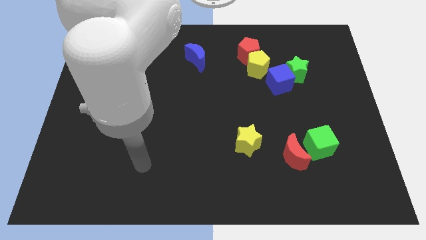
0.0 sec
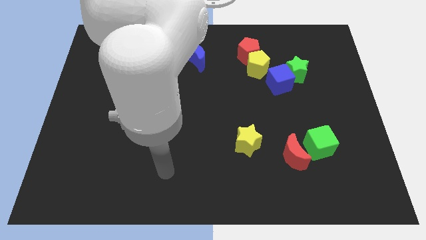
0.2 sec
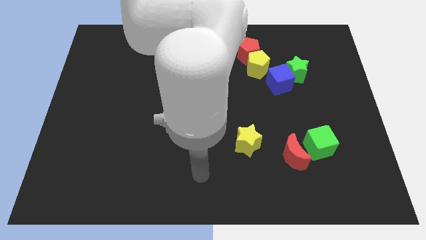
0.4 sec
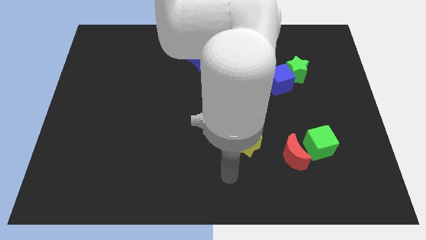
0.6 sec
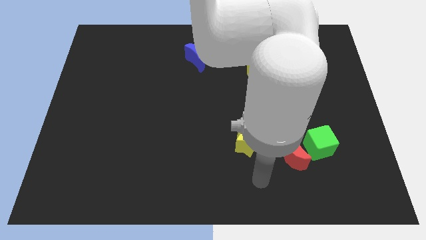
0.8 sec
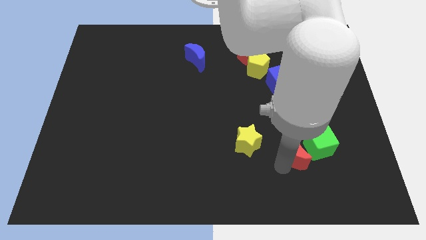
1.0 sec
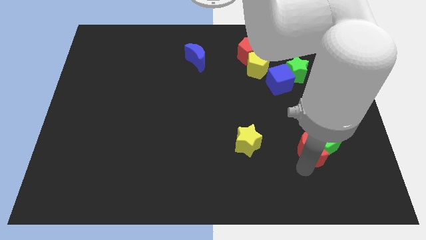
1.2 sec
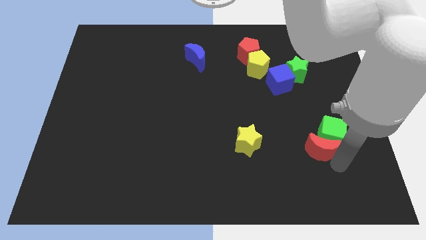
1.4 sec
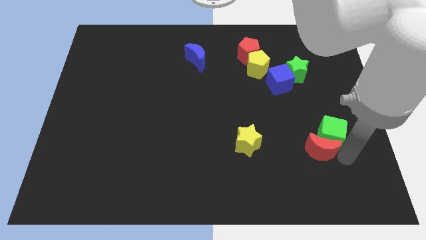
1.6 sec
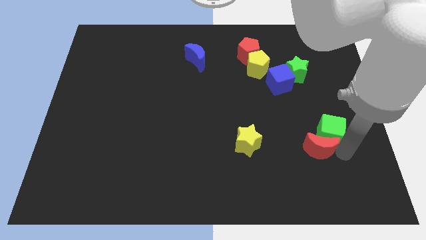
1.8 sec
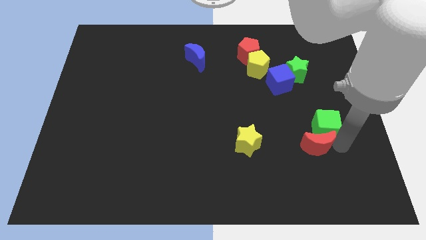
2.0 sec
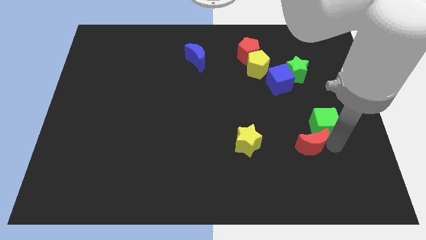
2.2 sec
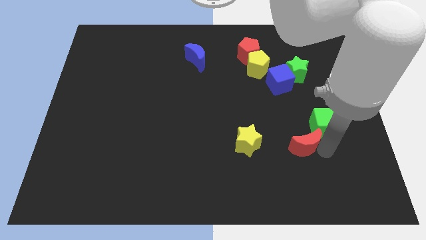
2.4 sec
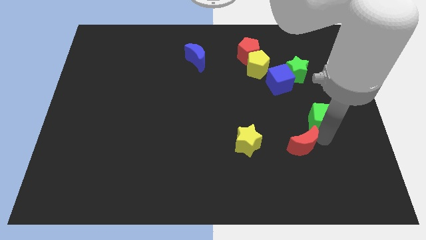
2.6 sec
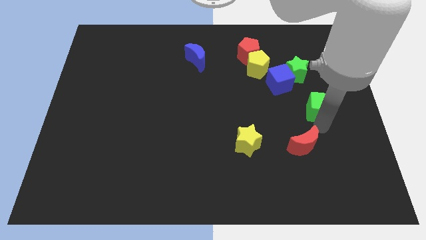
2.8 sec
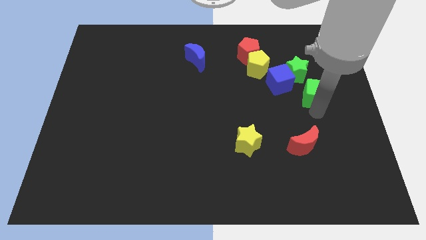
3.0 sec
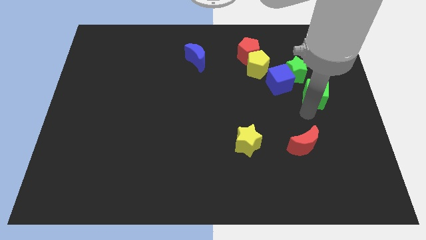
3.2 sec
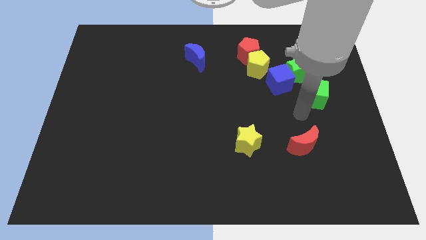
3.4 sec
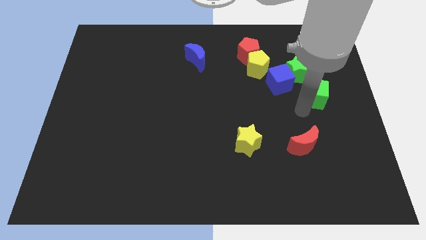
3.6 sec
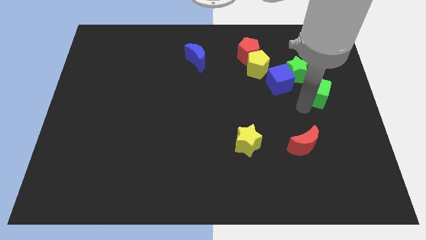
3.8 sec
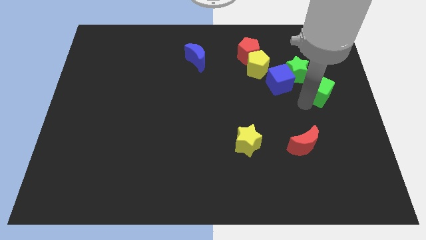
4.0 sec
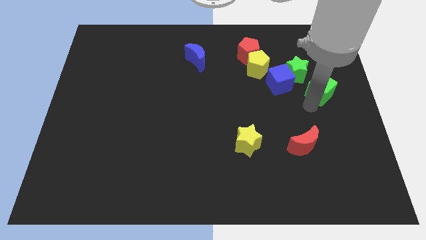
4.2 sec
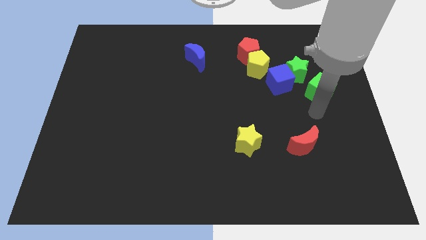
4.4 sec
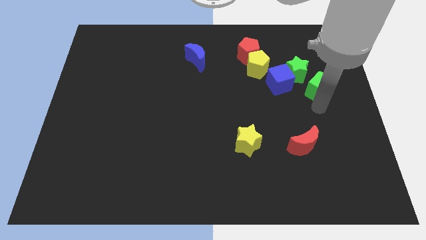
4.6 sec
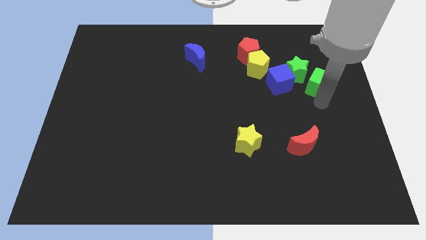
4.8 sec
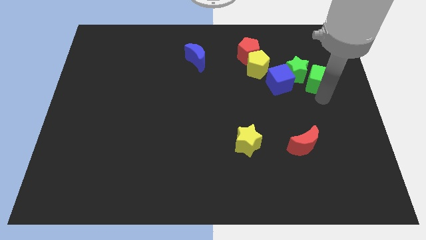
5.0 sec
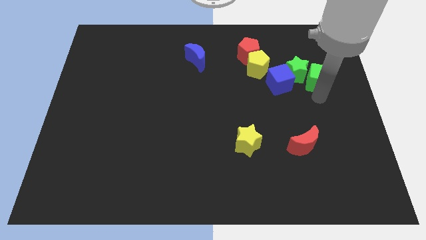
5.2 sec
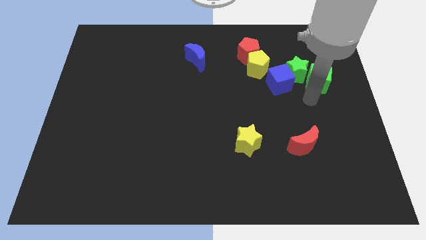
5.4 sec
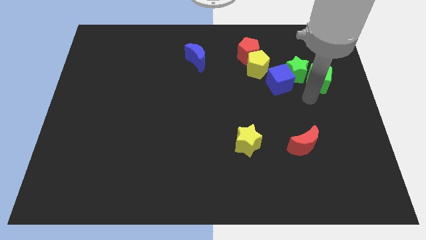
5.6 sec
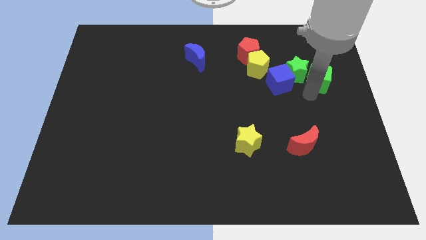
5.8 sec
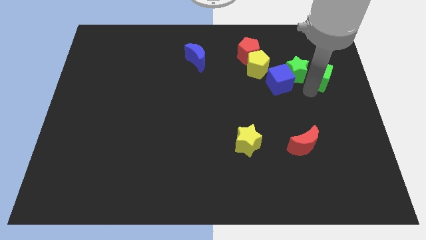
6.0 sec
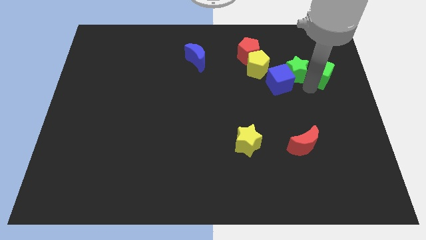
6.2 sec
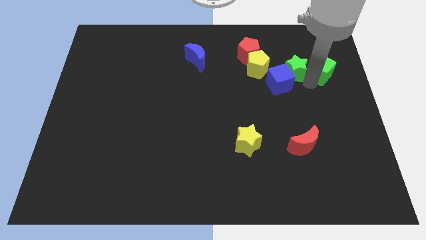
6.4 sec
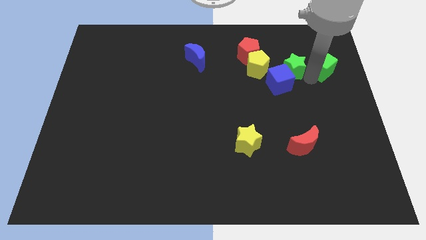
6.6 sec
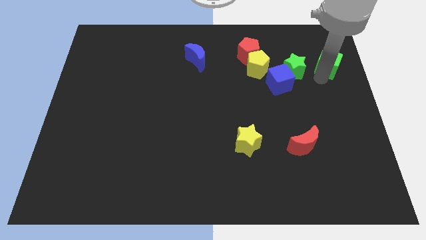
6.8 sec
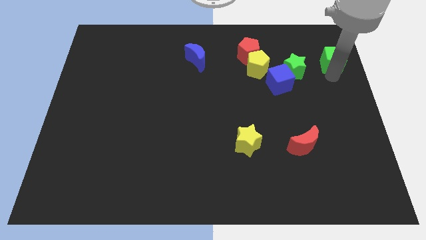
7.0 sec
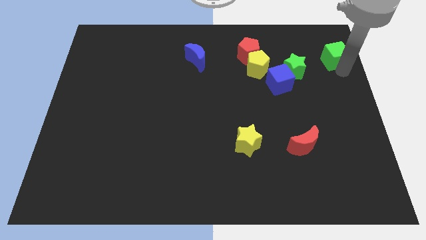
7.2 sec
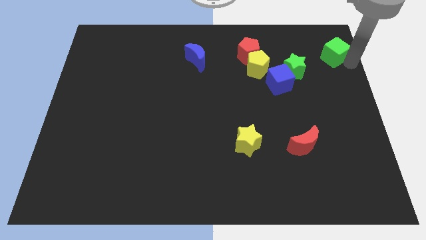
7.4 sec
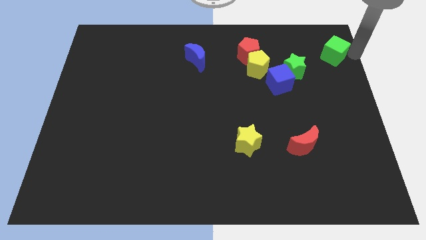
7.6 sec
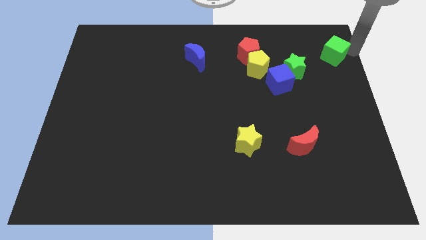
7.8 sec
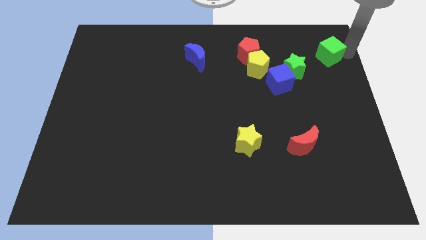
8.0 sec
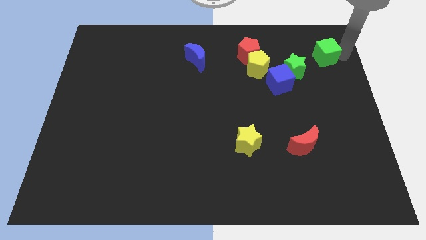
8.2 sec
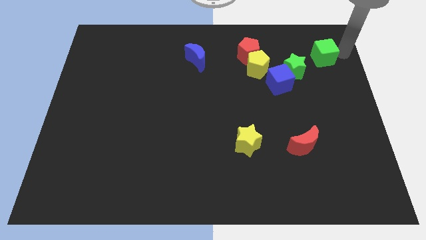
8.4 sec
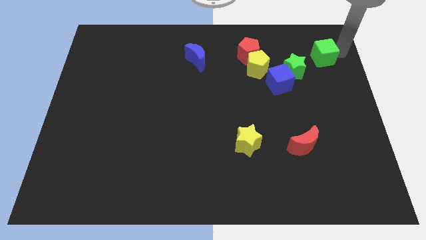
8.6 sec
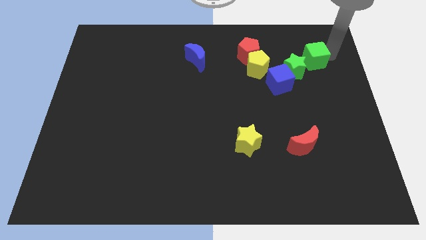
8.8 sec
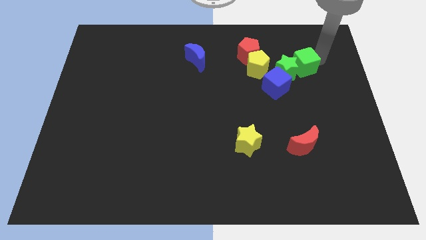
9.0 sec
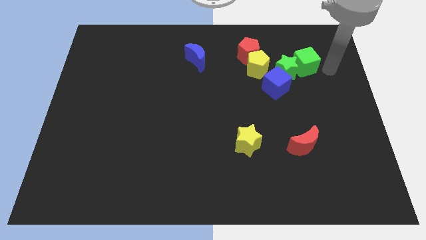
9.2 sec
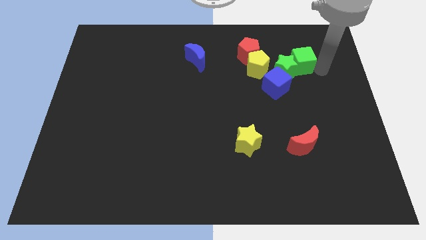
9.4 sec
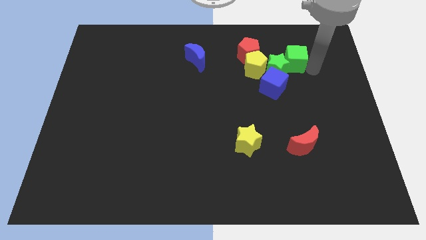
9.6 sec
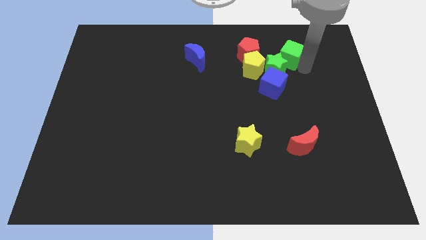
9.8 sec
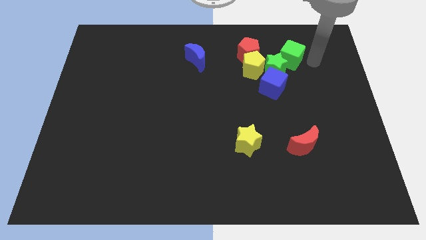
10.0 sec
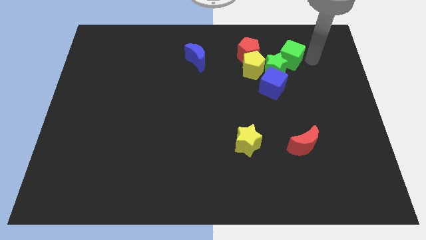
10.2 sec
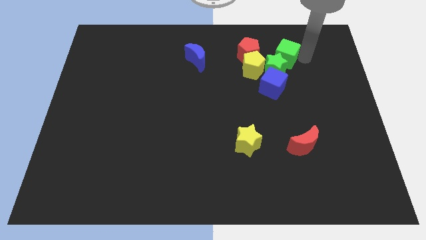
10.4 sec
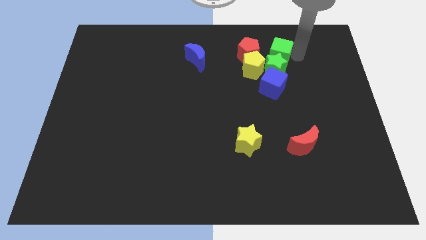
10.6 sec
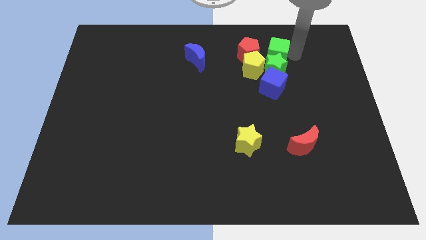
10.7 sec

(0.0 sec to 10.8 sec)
move the green cube to the top left of the green star

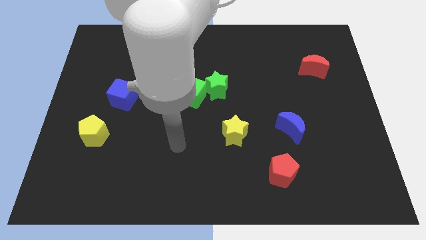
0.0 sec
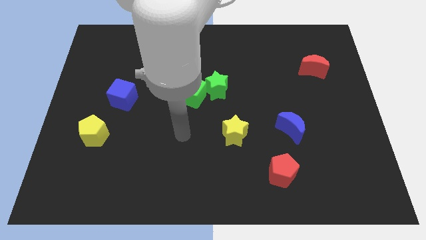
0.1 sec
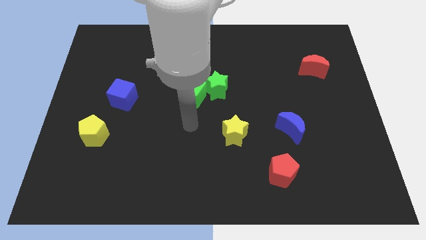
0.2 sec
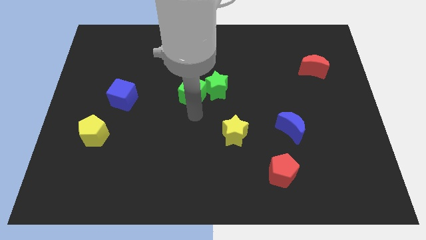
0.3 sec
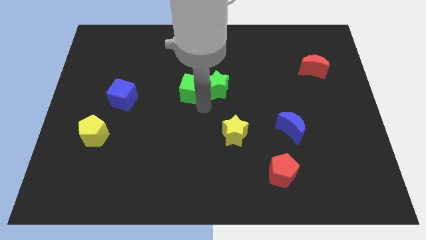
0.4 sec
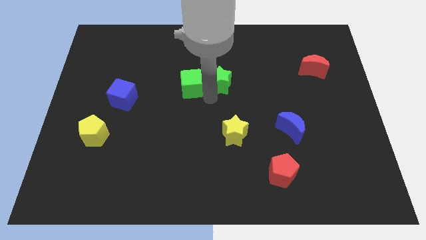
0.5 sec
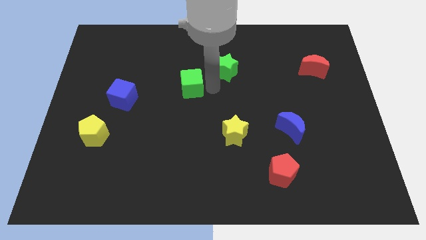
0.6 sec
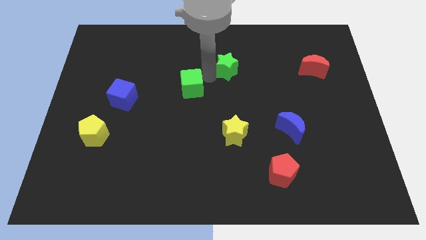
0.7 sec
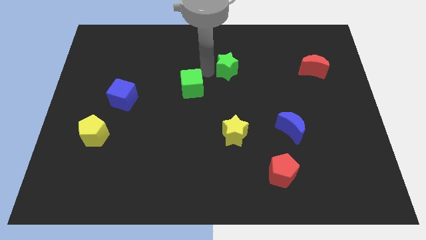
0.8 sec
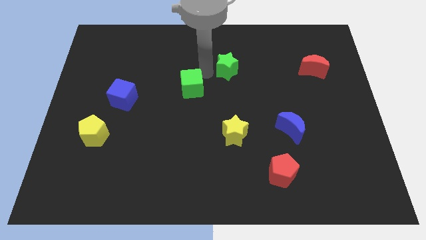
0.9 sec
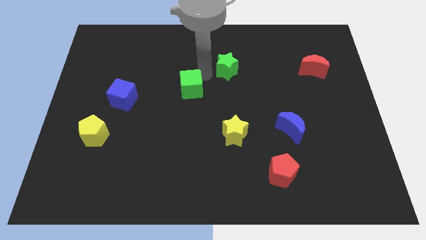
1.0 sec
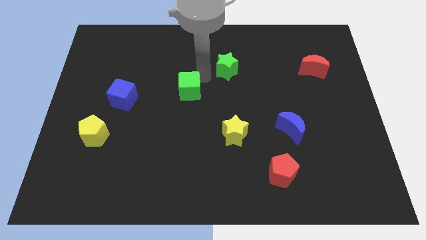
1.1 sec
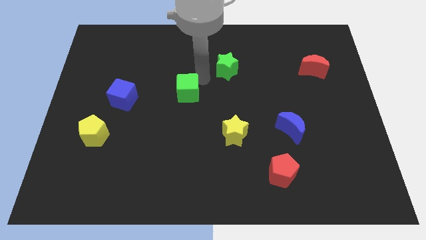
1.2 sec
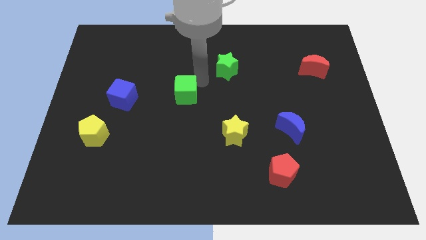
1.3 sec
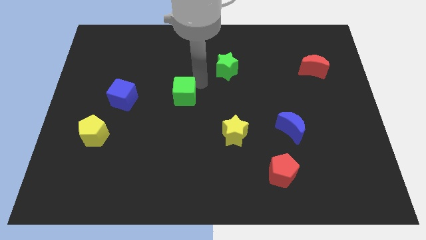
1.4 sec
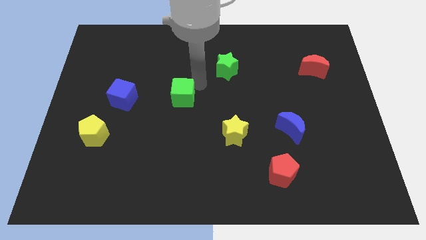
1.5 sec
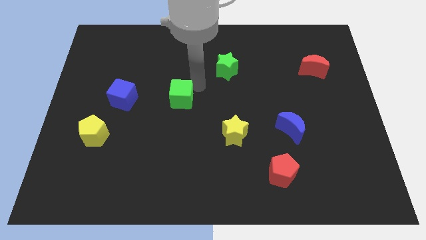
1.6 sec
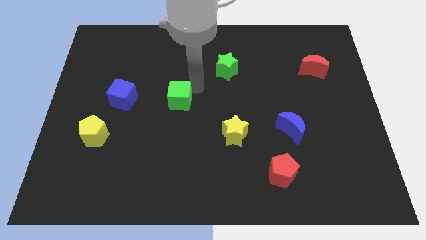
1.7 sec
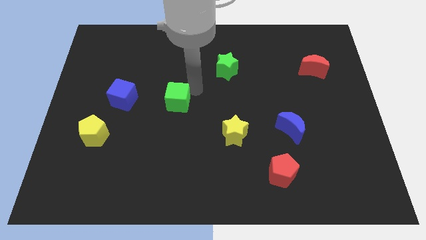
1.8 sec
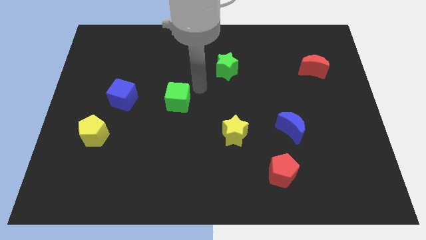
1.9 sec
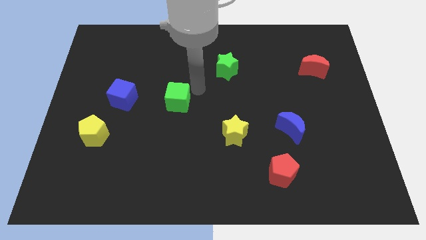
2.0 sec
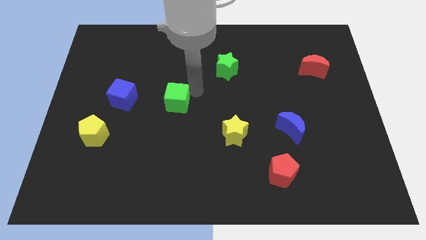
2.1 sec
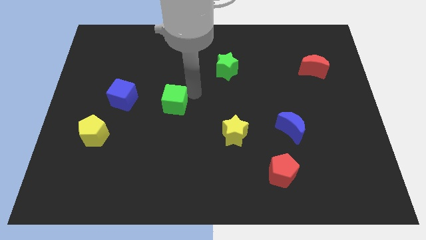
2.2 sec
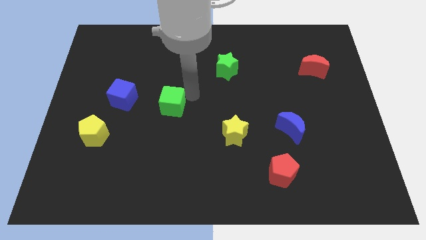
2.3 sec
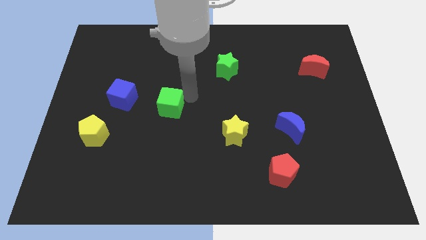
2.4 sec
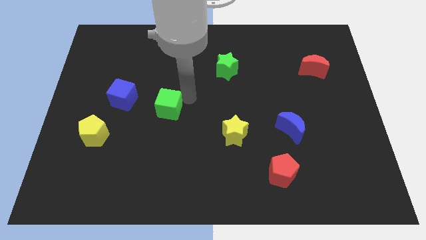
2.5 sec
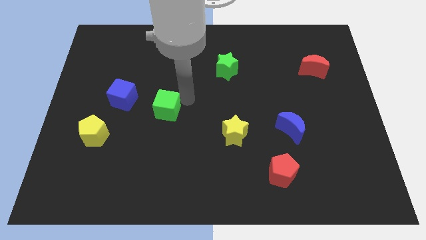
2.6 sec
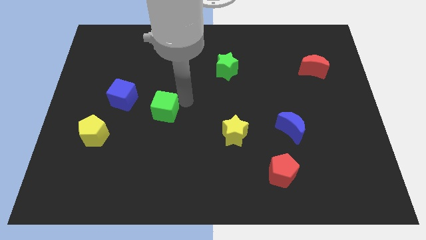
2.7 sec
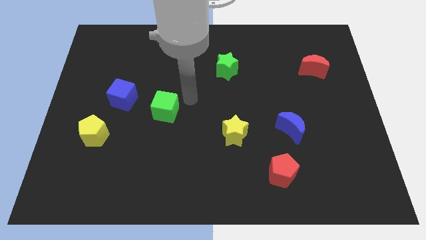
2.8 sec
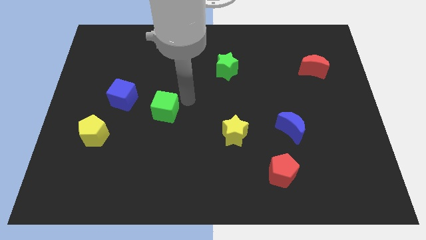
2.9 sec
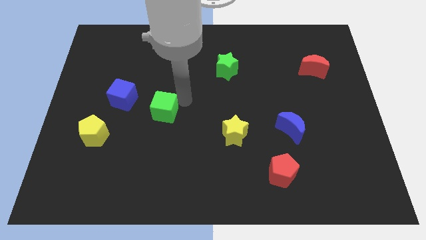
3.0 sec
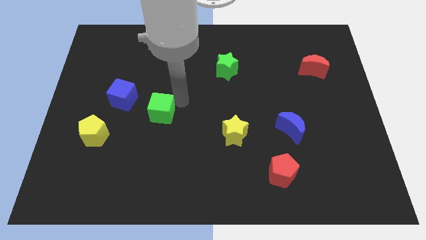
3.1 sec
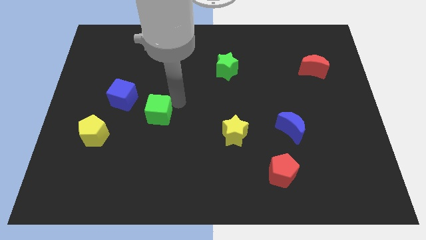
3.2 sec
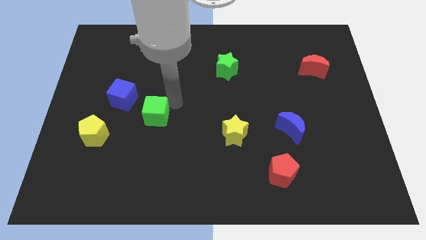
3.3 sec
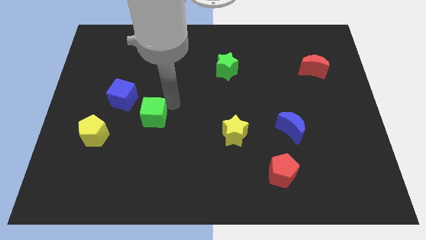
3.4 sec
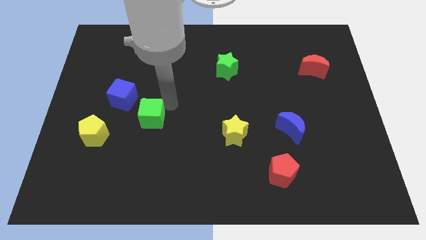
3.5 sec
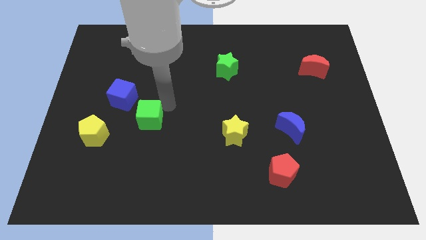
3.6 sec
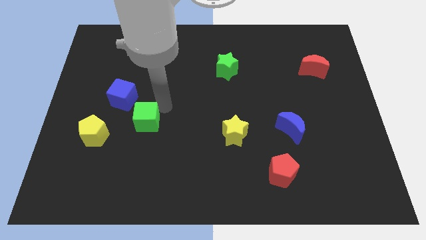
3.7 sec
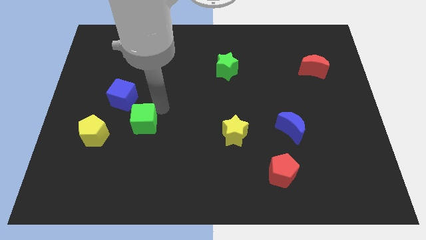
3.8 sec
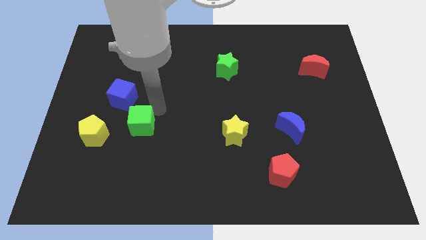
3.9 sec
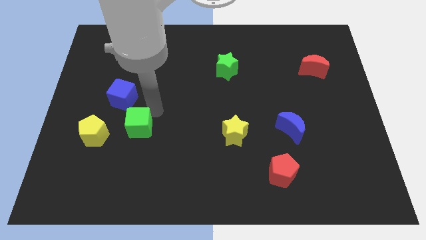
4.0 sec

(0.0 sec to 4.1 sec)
move the green cube below the blue cube
